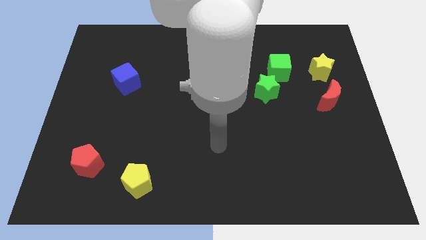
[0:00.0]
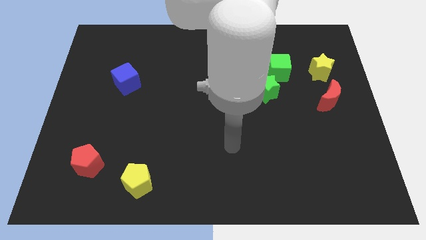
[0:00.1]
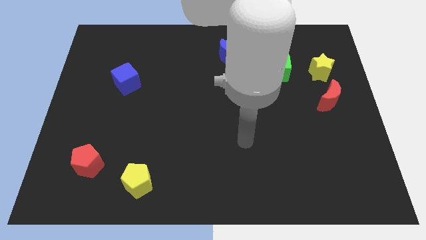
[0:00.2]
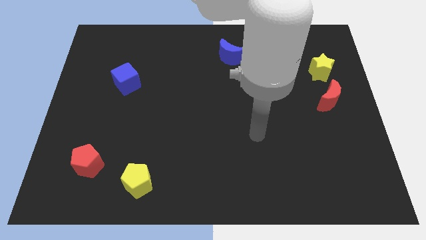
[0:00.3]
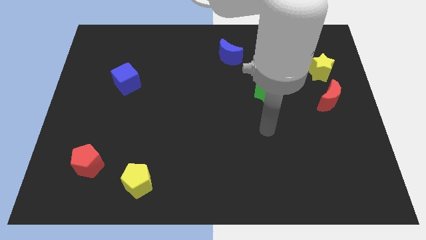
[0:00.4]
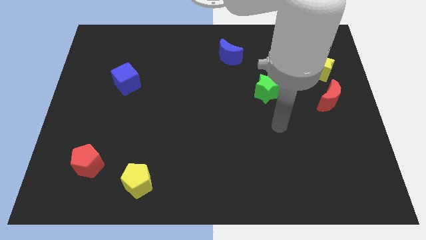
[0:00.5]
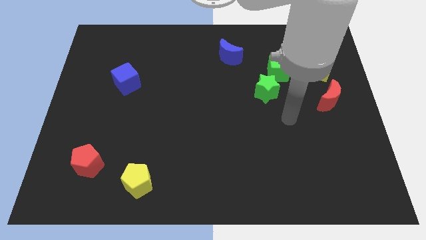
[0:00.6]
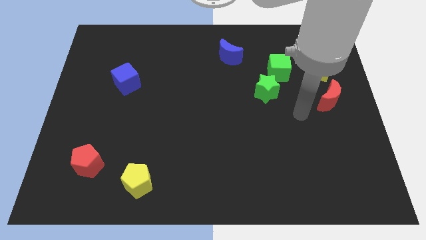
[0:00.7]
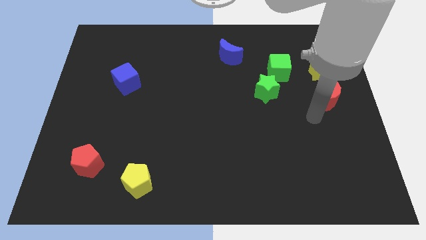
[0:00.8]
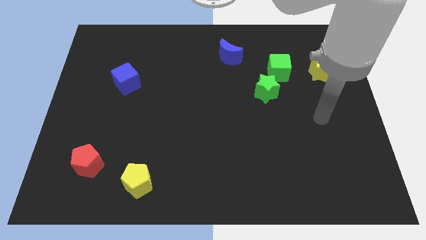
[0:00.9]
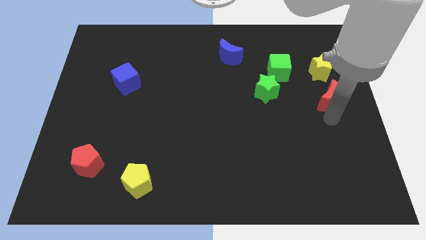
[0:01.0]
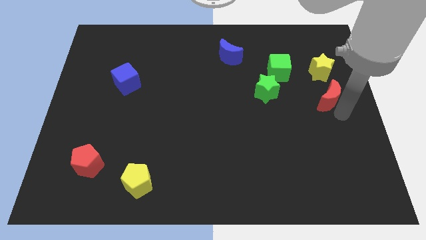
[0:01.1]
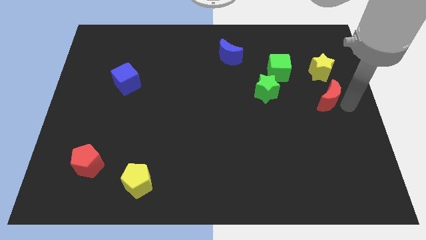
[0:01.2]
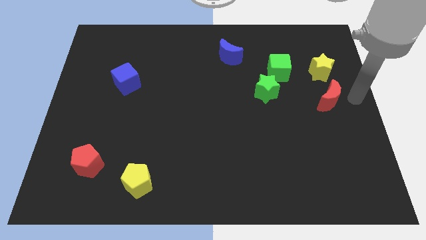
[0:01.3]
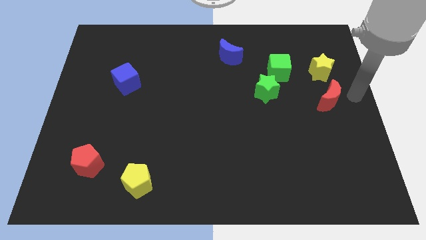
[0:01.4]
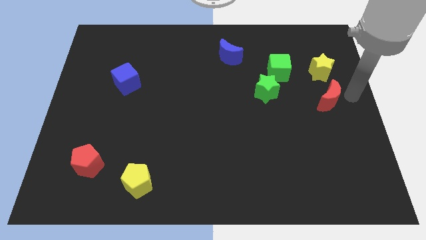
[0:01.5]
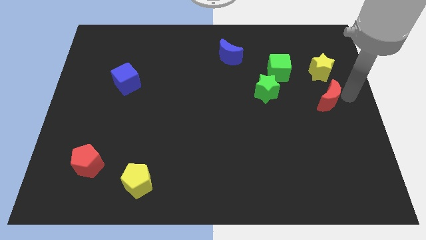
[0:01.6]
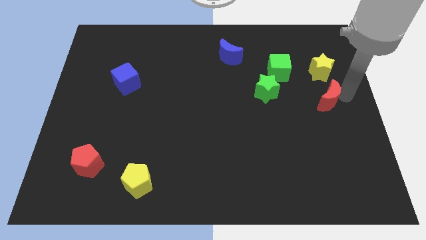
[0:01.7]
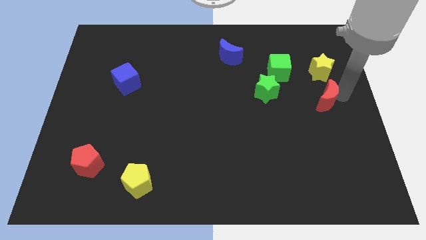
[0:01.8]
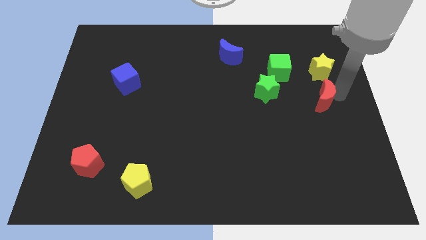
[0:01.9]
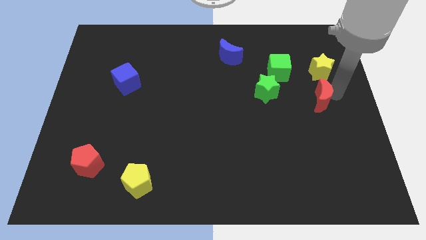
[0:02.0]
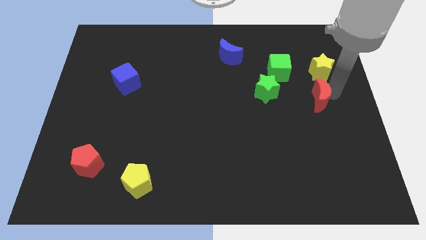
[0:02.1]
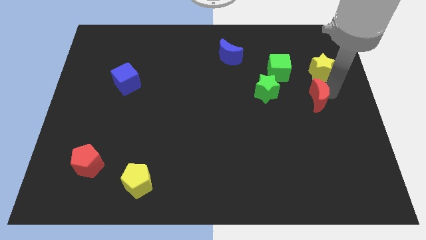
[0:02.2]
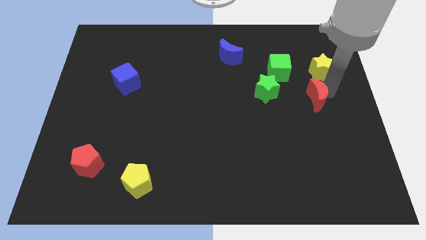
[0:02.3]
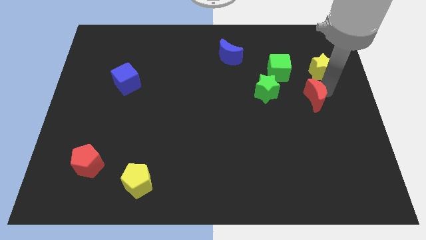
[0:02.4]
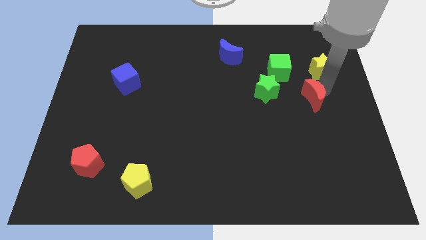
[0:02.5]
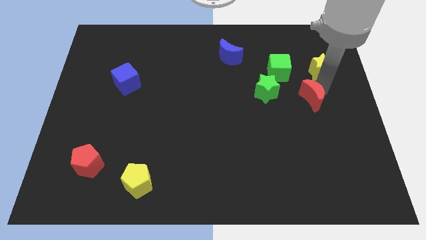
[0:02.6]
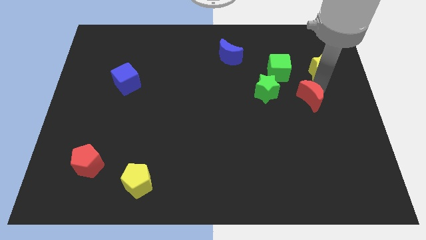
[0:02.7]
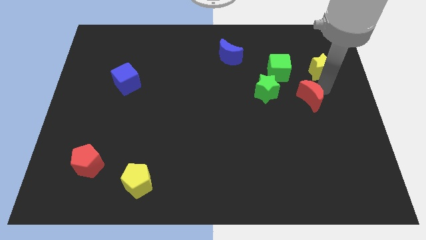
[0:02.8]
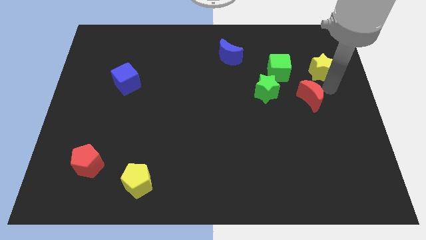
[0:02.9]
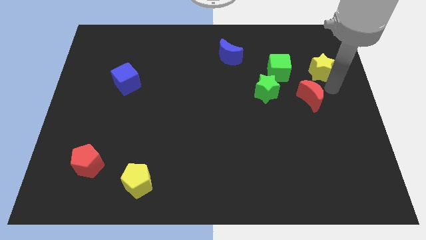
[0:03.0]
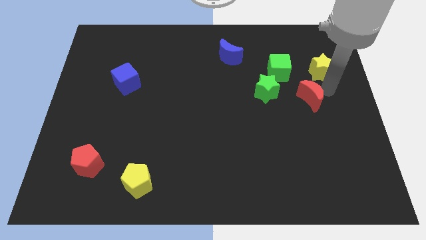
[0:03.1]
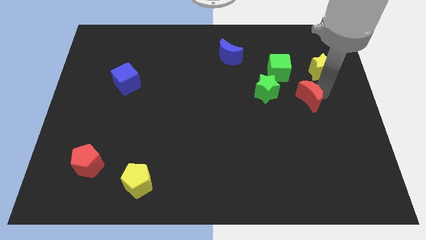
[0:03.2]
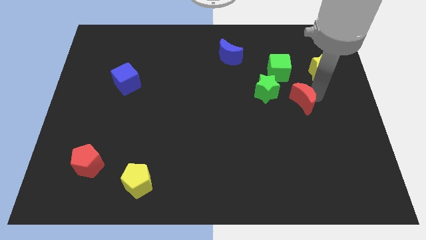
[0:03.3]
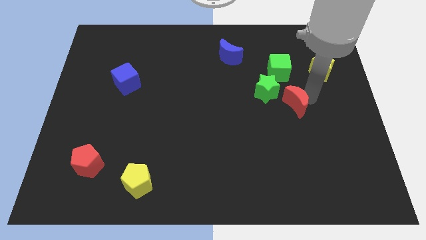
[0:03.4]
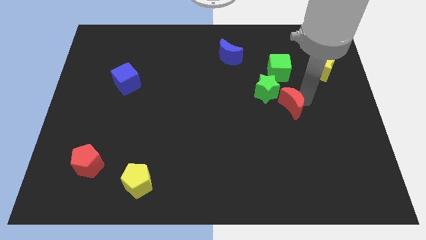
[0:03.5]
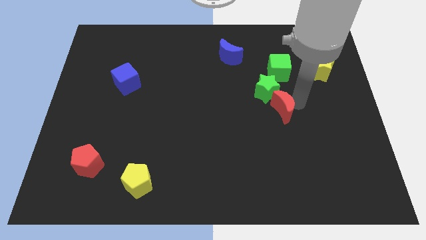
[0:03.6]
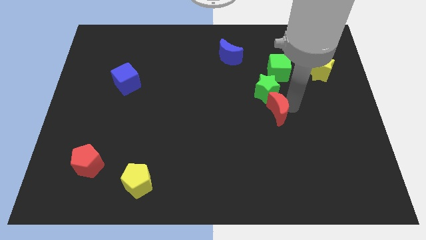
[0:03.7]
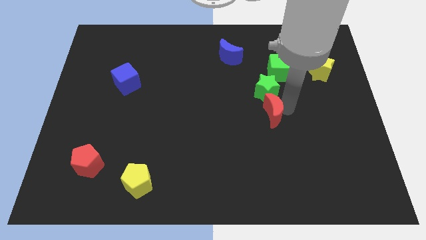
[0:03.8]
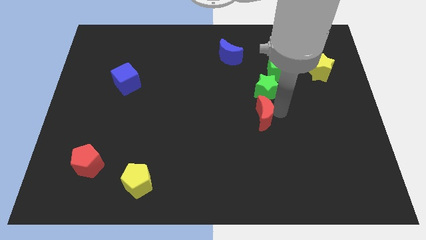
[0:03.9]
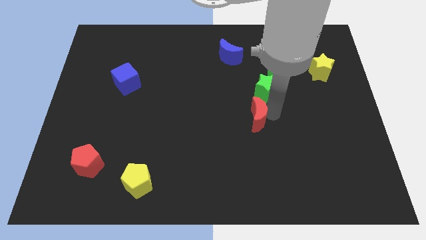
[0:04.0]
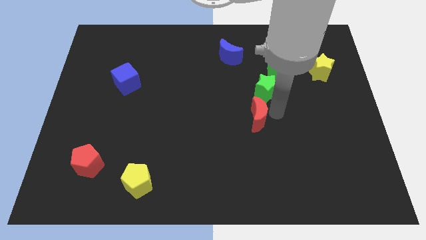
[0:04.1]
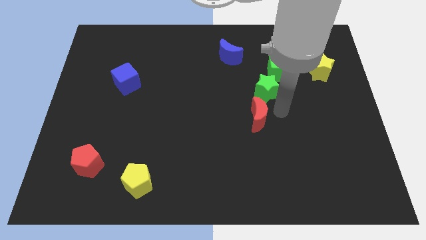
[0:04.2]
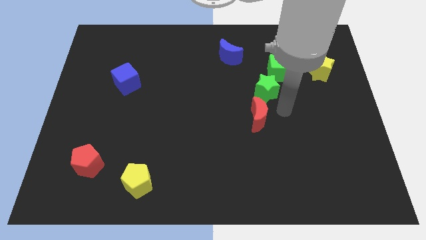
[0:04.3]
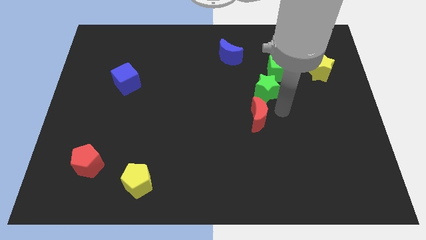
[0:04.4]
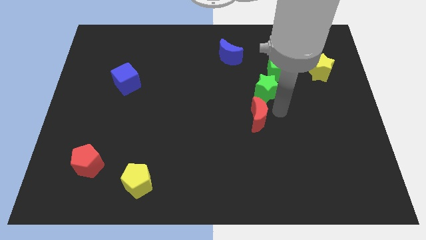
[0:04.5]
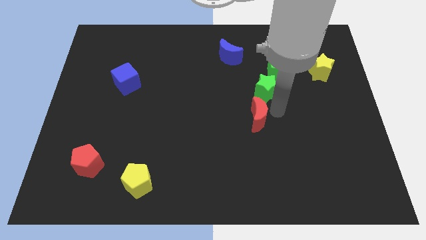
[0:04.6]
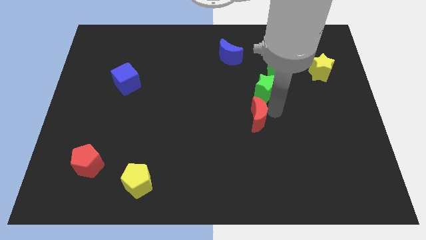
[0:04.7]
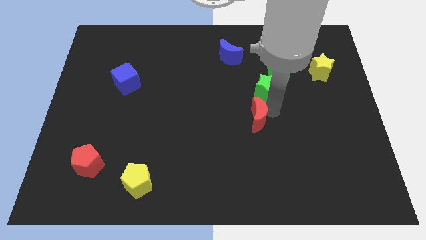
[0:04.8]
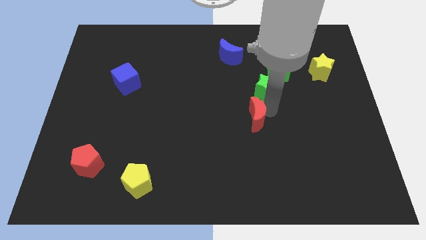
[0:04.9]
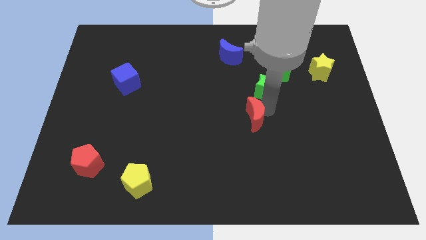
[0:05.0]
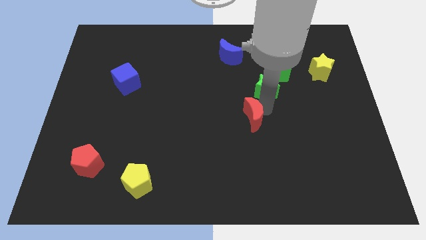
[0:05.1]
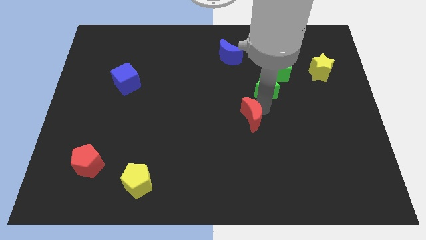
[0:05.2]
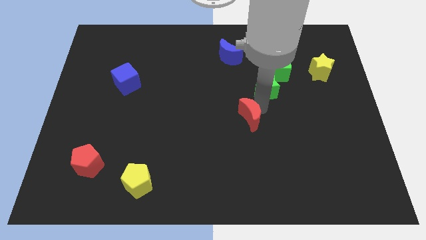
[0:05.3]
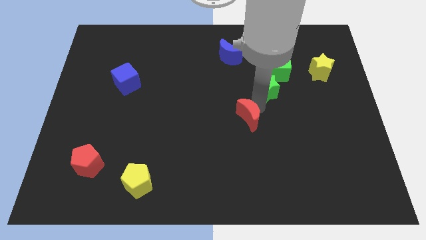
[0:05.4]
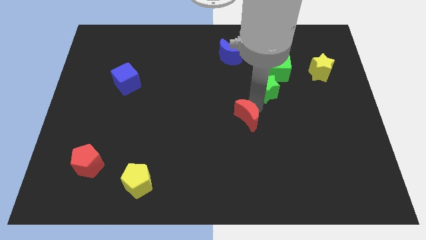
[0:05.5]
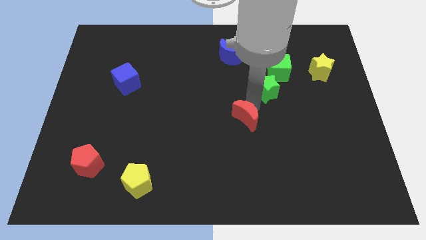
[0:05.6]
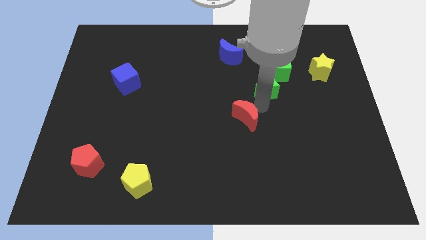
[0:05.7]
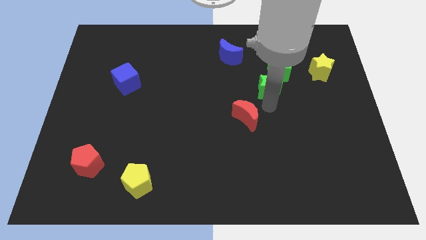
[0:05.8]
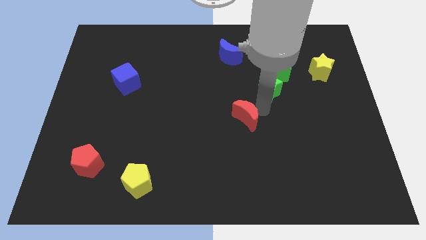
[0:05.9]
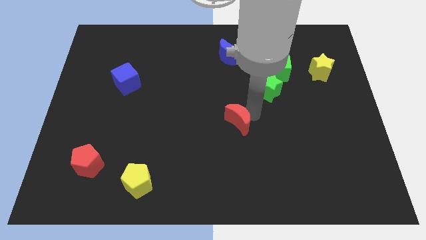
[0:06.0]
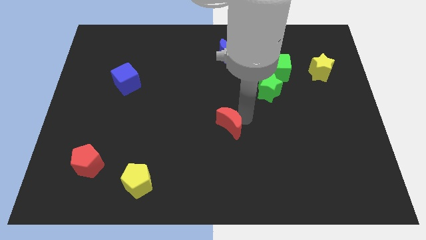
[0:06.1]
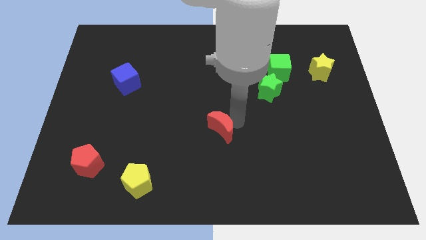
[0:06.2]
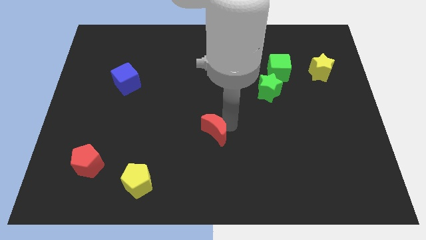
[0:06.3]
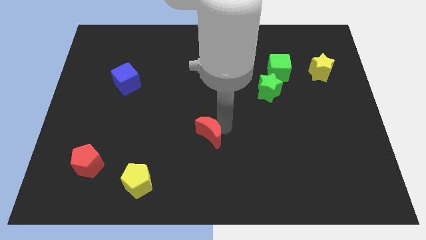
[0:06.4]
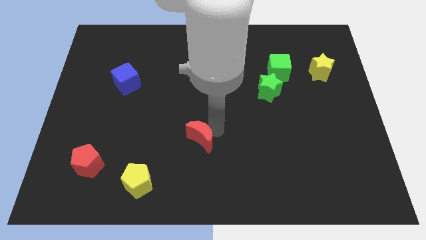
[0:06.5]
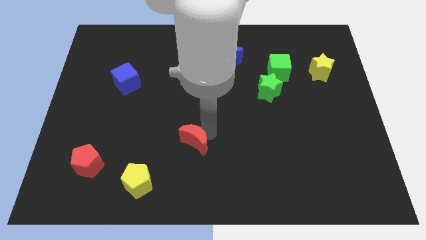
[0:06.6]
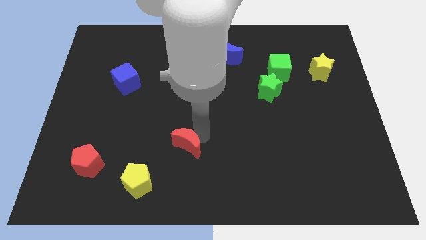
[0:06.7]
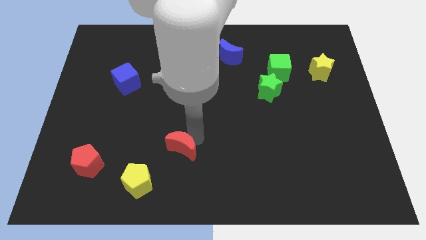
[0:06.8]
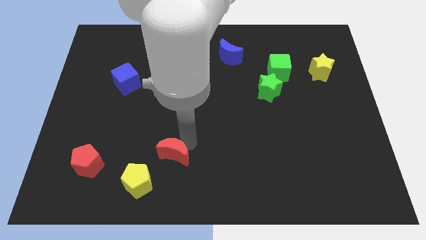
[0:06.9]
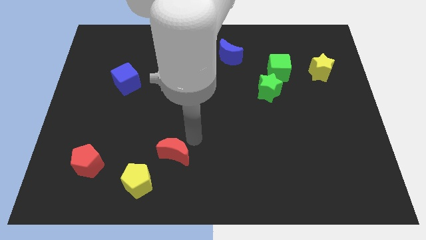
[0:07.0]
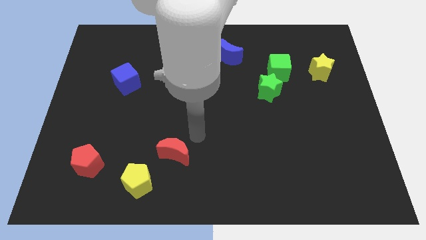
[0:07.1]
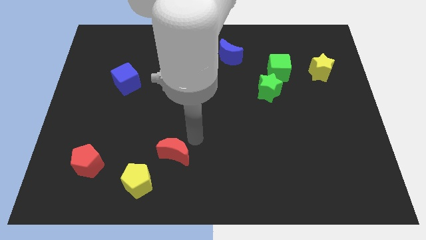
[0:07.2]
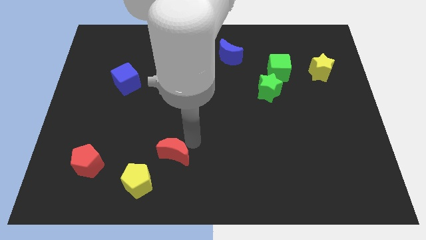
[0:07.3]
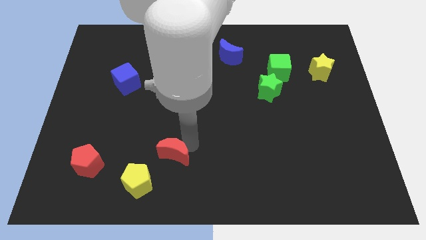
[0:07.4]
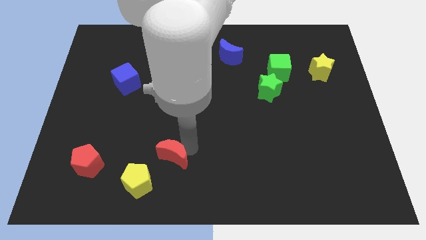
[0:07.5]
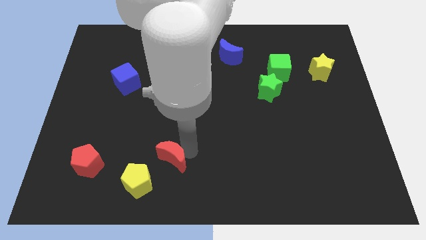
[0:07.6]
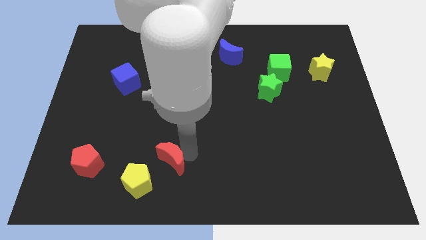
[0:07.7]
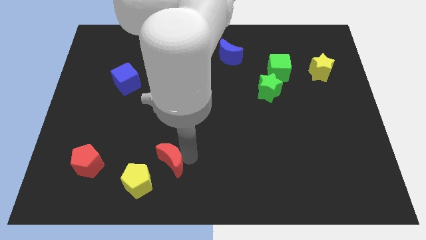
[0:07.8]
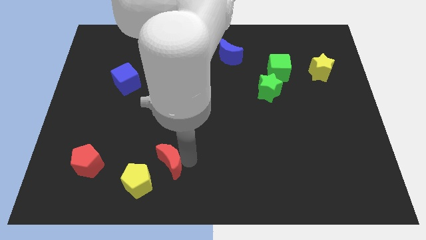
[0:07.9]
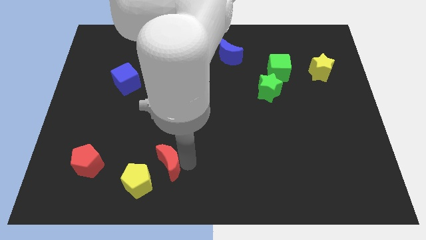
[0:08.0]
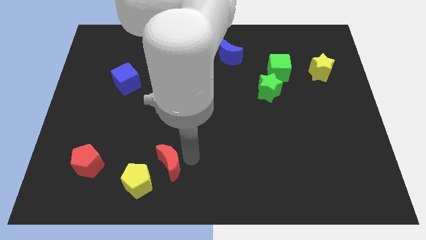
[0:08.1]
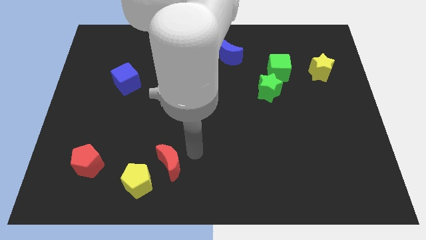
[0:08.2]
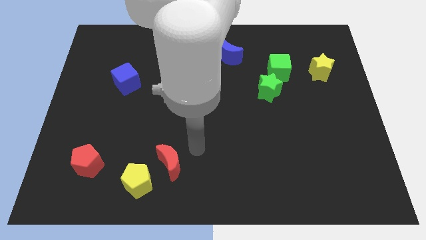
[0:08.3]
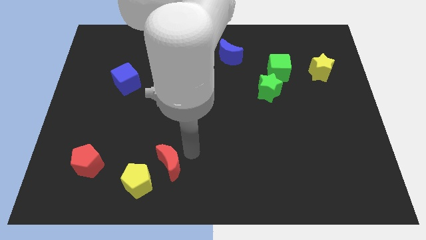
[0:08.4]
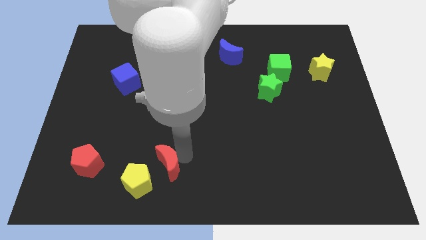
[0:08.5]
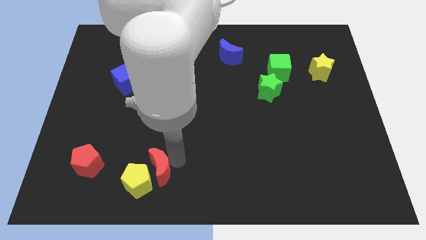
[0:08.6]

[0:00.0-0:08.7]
push the red moon to the yellow pentagon
